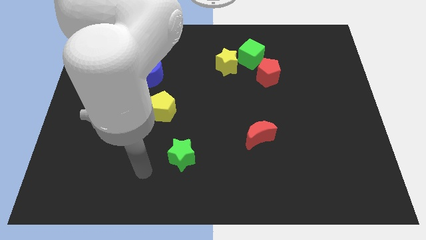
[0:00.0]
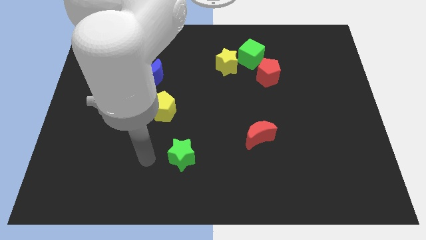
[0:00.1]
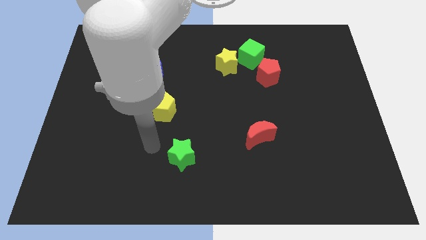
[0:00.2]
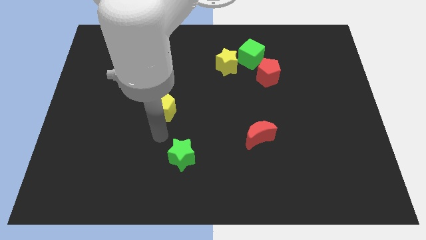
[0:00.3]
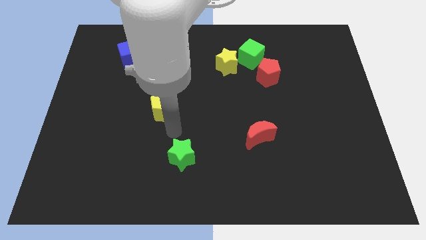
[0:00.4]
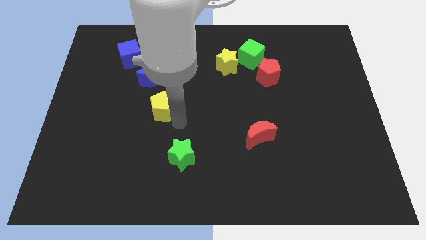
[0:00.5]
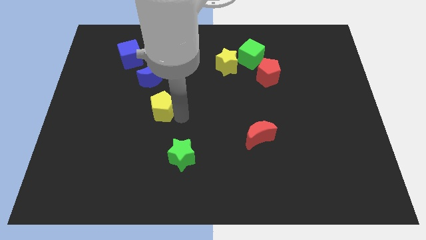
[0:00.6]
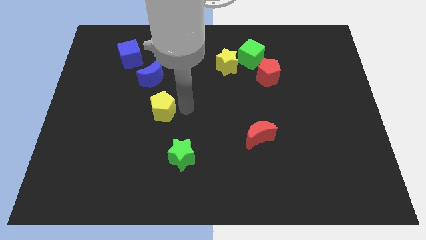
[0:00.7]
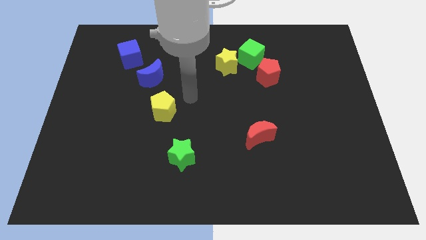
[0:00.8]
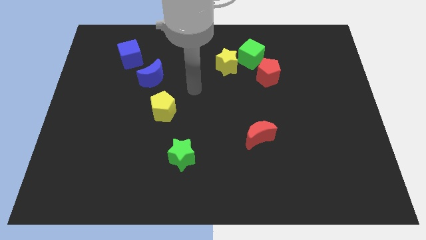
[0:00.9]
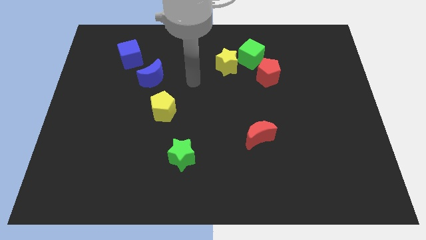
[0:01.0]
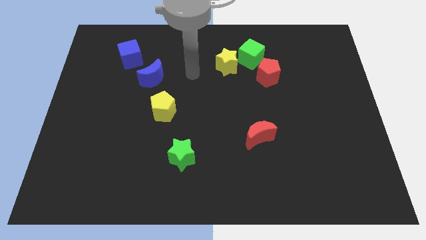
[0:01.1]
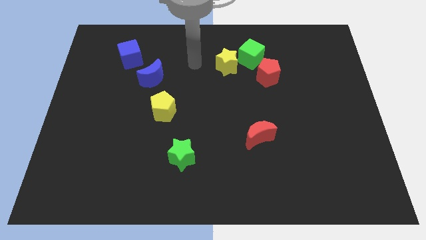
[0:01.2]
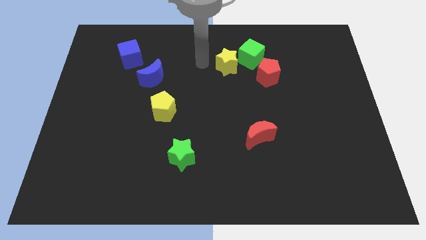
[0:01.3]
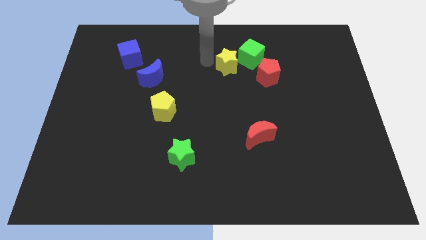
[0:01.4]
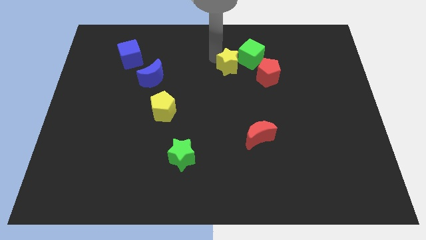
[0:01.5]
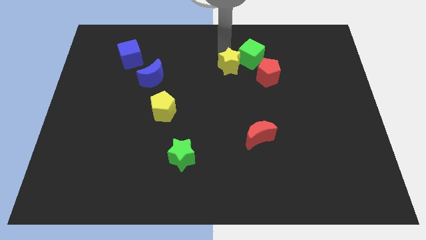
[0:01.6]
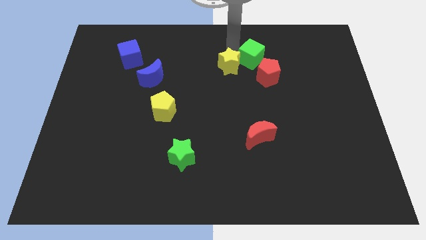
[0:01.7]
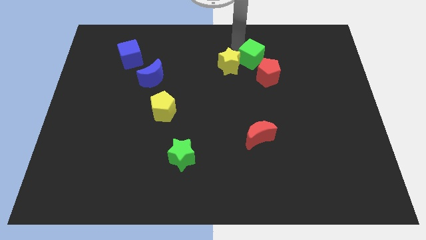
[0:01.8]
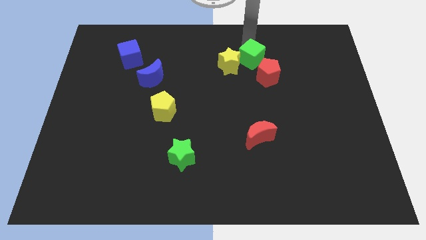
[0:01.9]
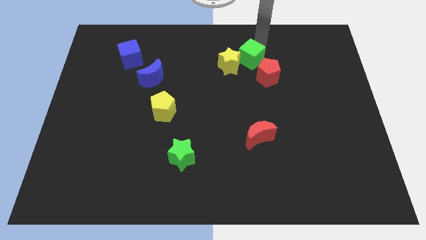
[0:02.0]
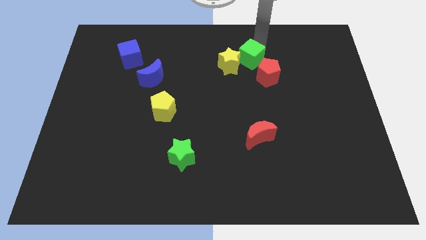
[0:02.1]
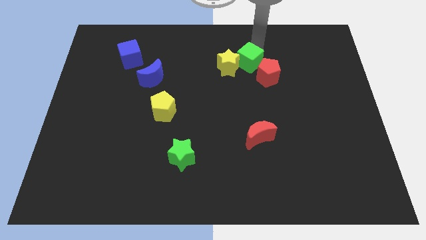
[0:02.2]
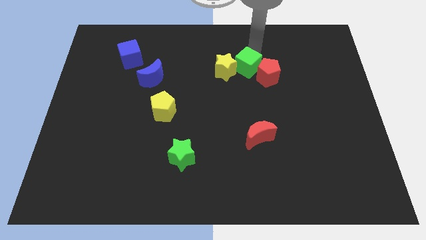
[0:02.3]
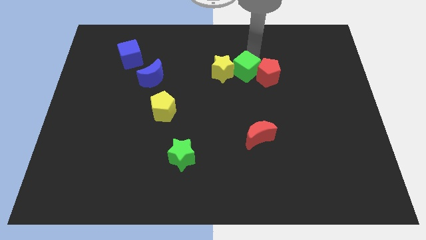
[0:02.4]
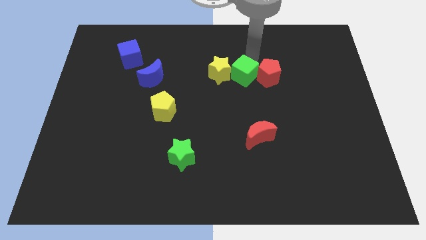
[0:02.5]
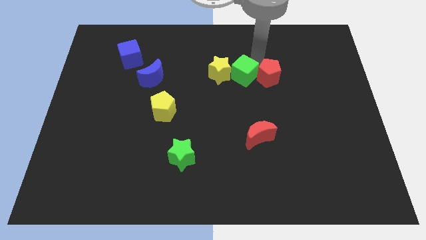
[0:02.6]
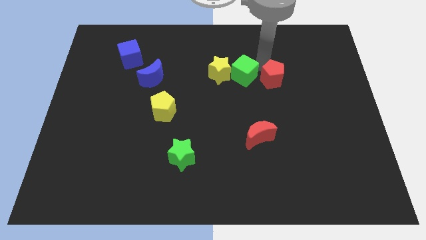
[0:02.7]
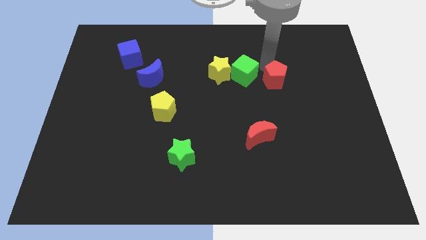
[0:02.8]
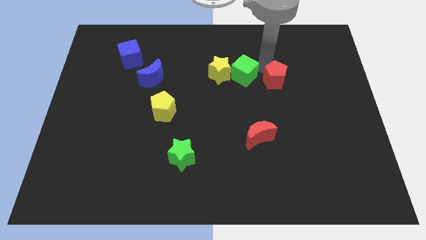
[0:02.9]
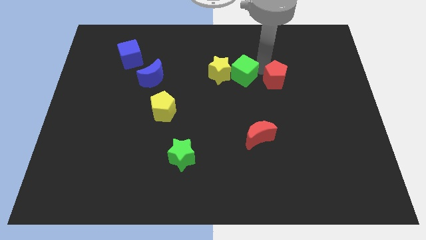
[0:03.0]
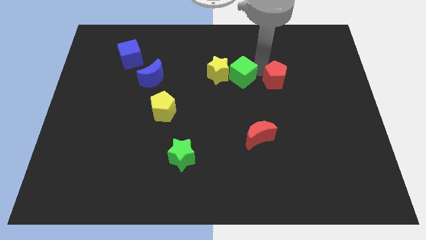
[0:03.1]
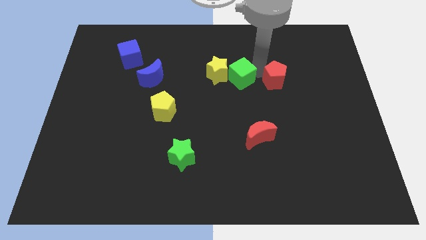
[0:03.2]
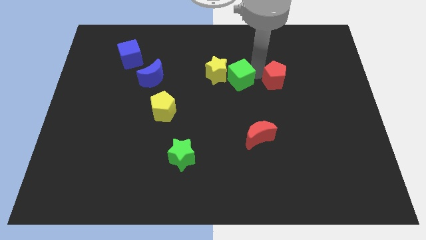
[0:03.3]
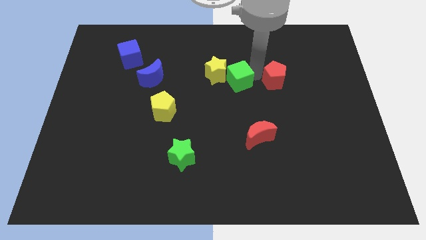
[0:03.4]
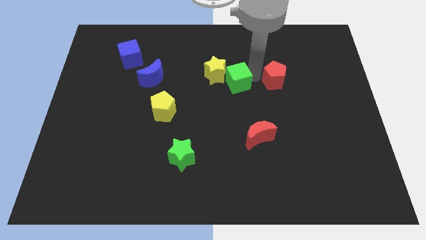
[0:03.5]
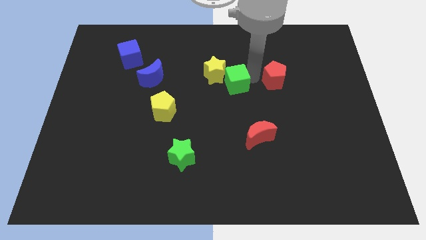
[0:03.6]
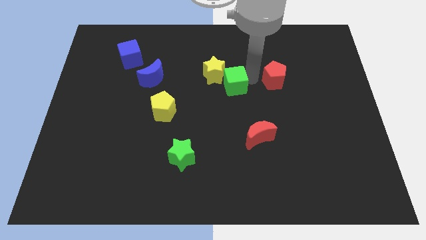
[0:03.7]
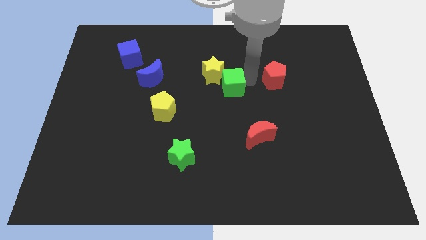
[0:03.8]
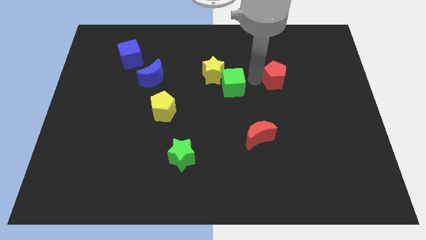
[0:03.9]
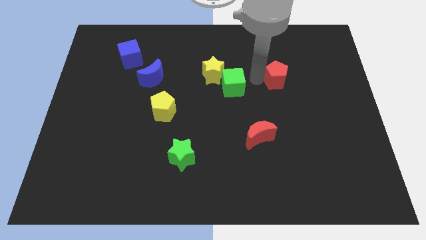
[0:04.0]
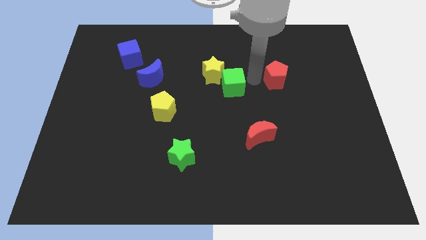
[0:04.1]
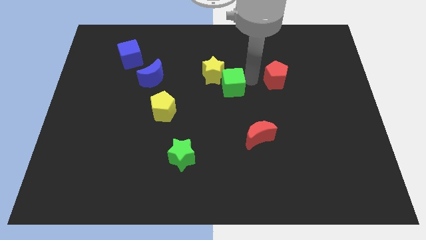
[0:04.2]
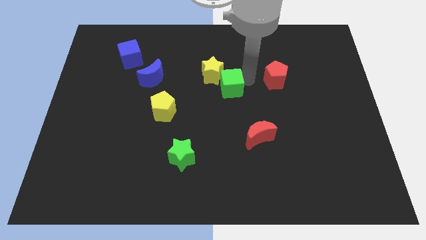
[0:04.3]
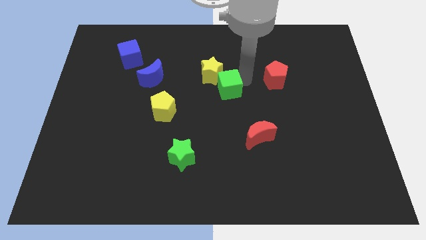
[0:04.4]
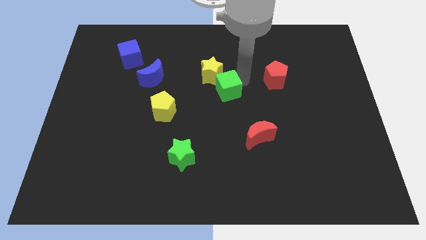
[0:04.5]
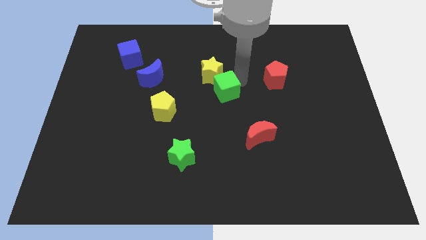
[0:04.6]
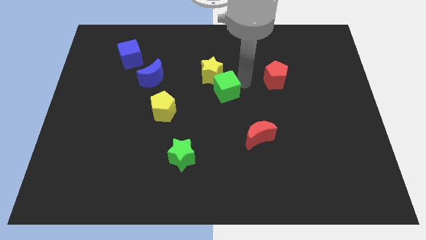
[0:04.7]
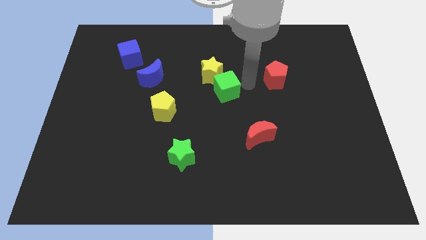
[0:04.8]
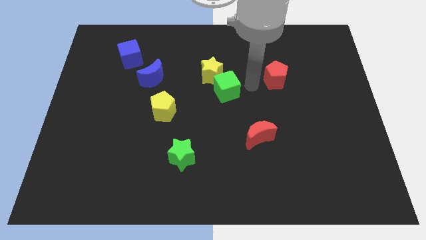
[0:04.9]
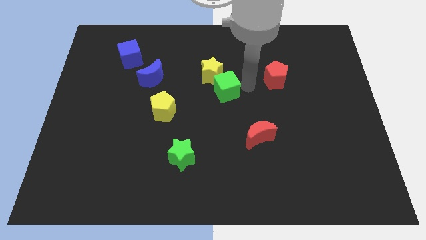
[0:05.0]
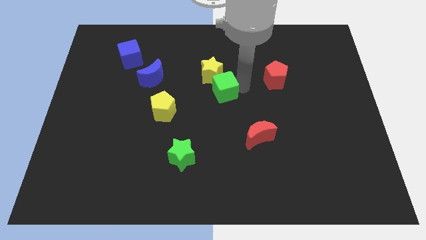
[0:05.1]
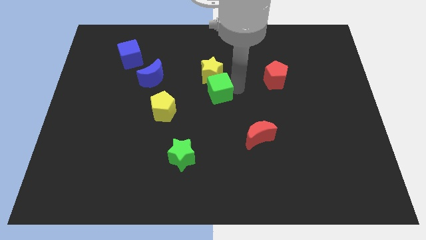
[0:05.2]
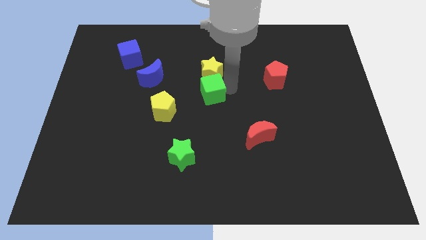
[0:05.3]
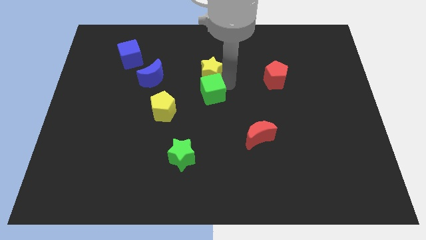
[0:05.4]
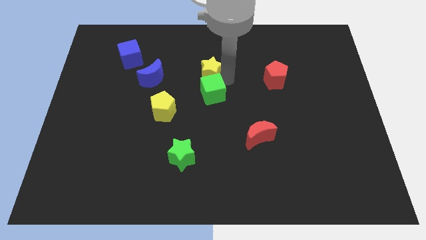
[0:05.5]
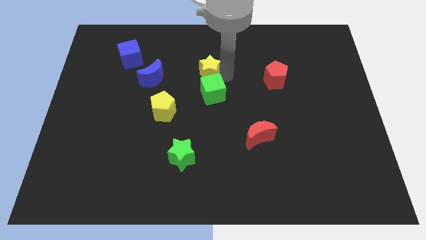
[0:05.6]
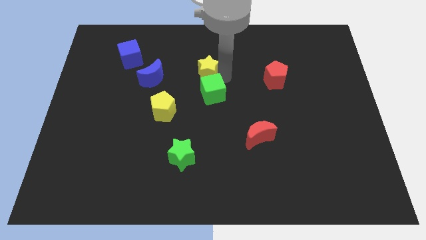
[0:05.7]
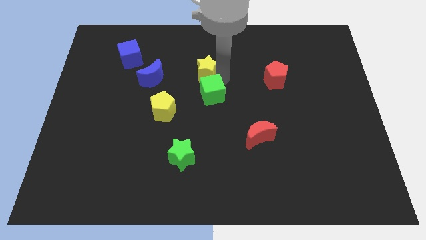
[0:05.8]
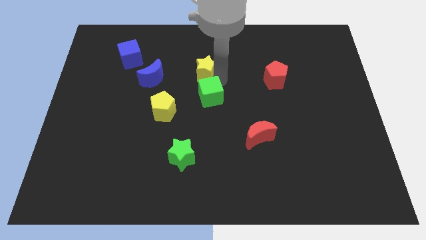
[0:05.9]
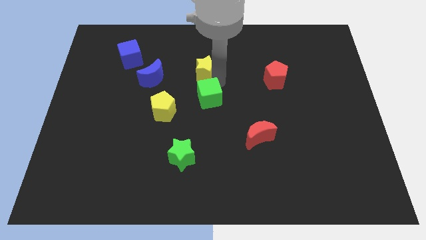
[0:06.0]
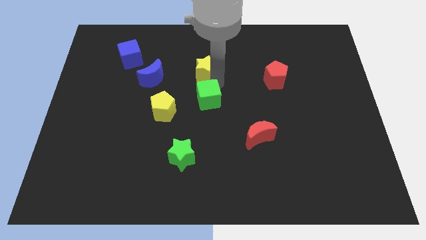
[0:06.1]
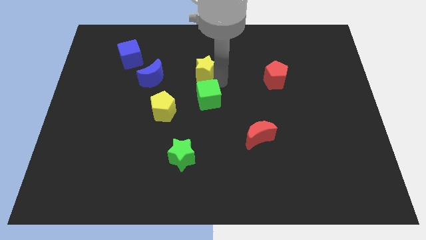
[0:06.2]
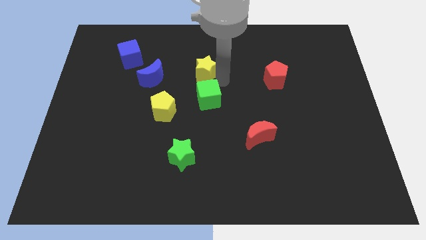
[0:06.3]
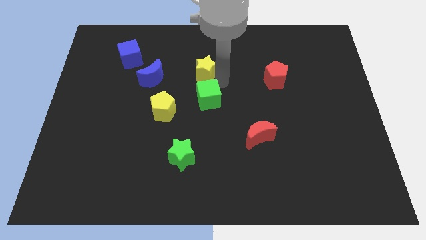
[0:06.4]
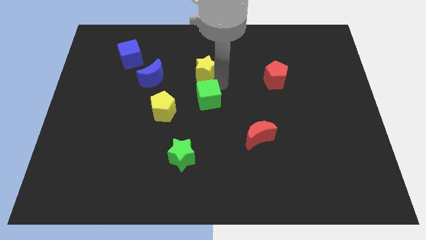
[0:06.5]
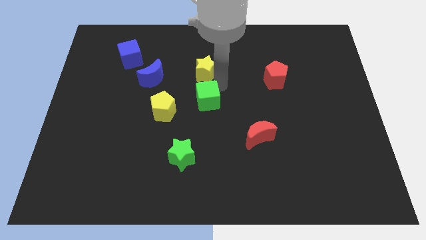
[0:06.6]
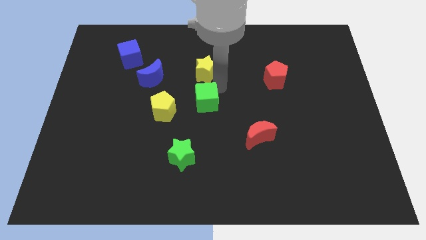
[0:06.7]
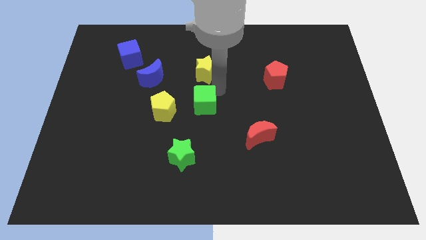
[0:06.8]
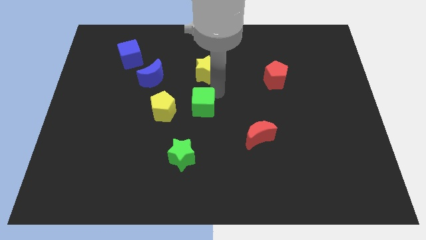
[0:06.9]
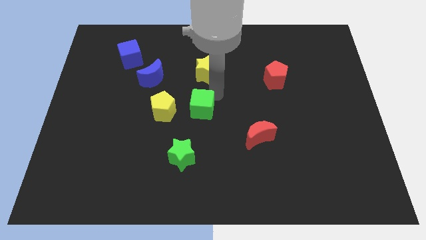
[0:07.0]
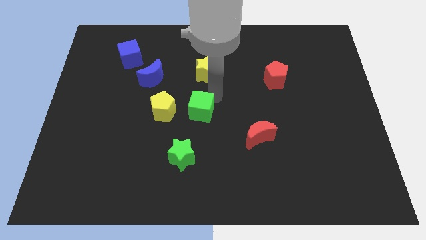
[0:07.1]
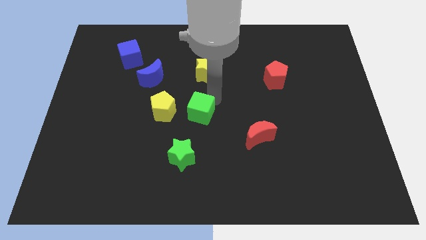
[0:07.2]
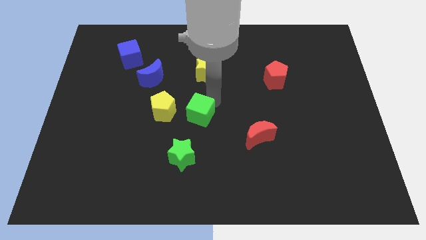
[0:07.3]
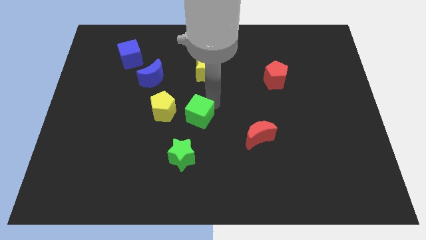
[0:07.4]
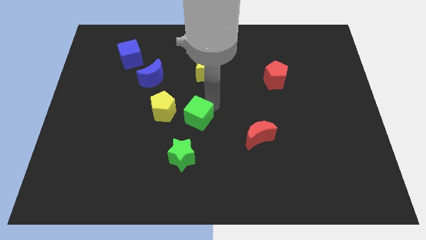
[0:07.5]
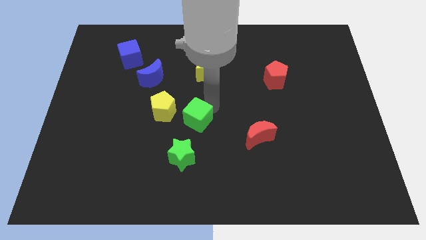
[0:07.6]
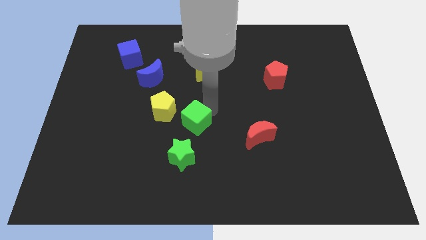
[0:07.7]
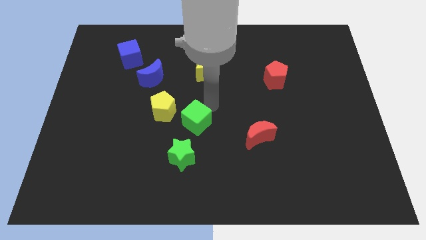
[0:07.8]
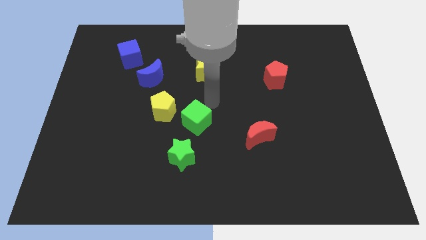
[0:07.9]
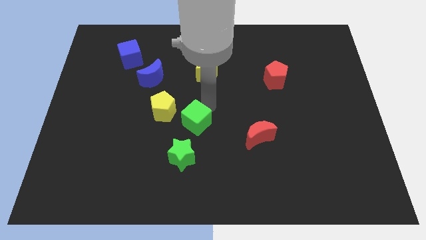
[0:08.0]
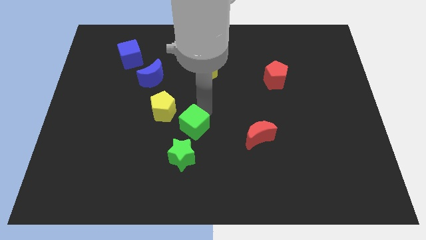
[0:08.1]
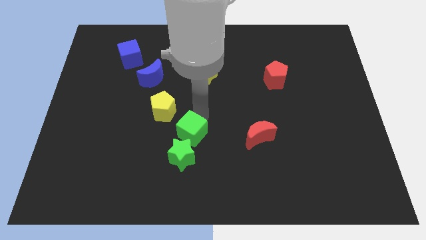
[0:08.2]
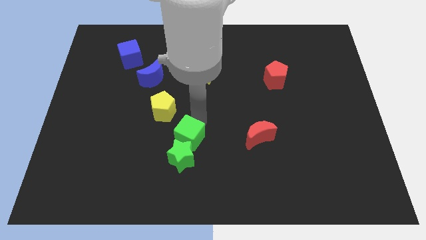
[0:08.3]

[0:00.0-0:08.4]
put the green cube to the green star
